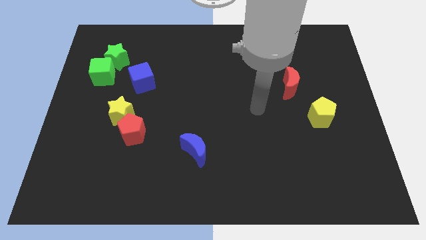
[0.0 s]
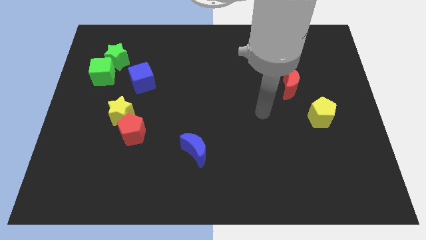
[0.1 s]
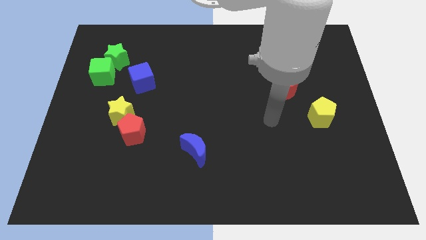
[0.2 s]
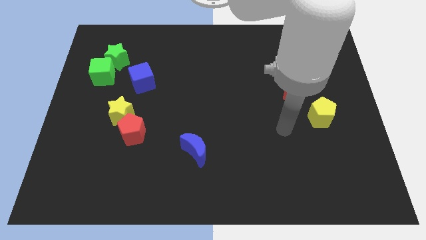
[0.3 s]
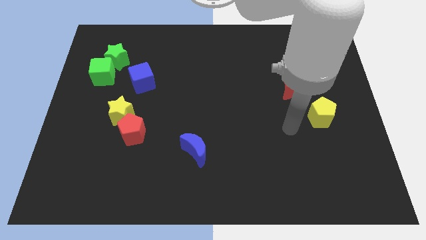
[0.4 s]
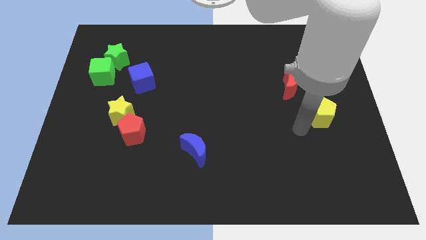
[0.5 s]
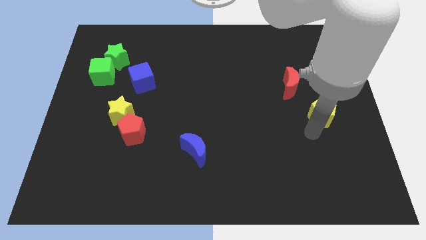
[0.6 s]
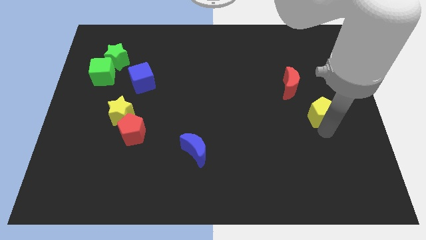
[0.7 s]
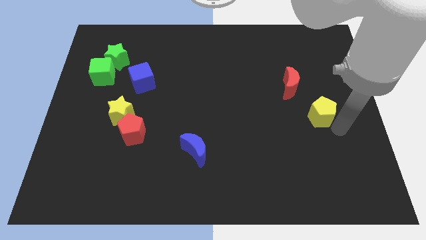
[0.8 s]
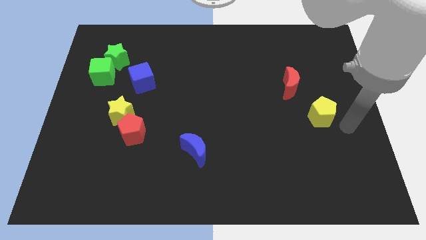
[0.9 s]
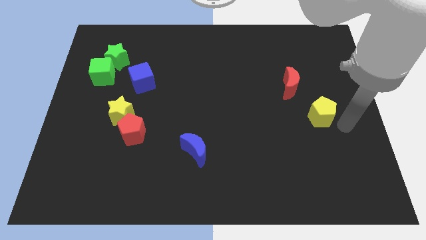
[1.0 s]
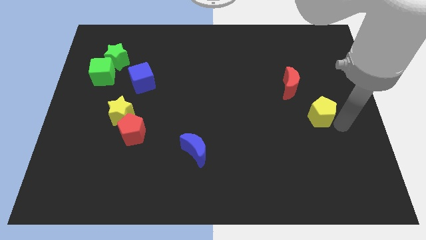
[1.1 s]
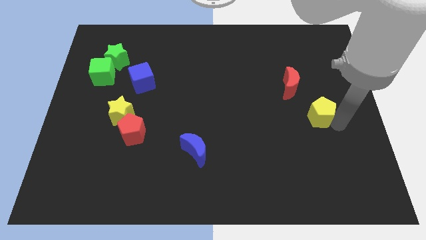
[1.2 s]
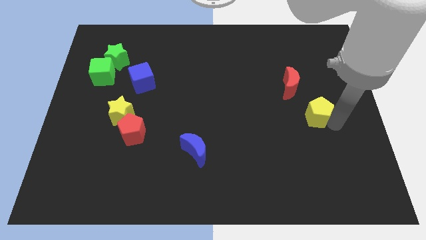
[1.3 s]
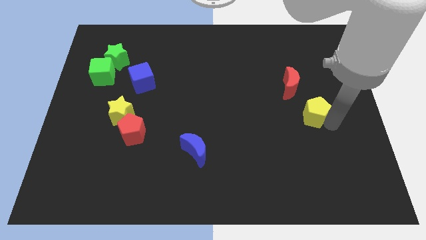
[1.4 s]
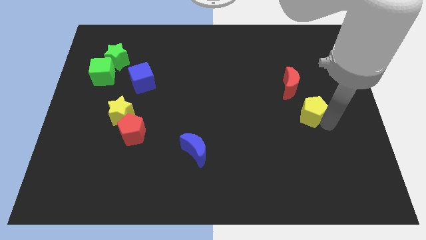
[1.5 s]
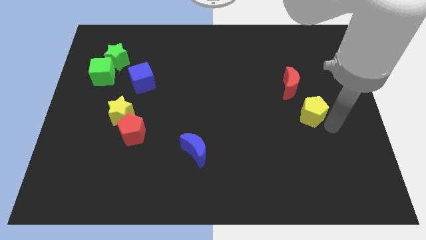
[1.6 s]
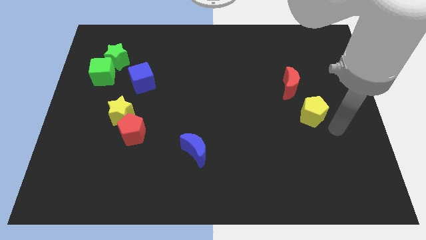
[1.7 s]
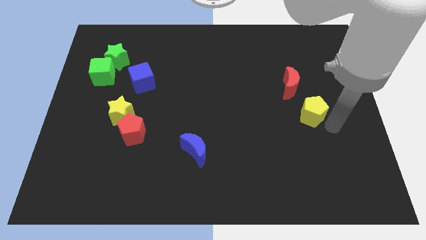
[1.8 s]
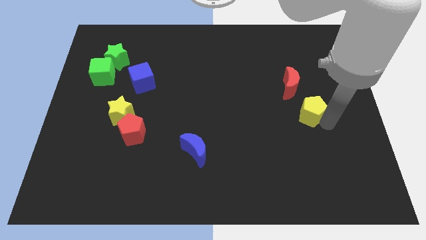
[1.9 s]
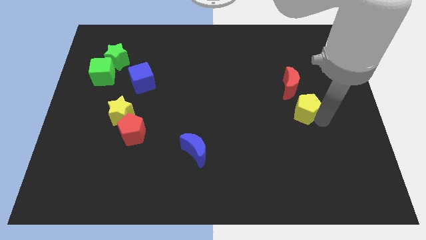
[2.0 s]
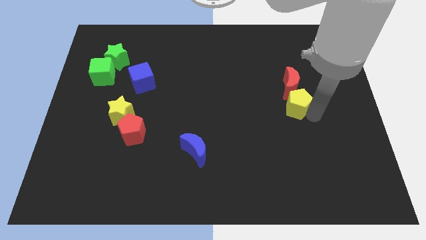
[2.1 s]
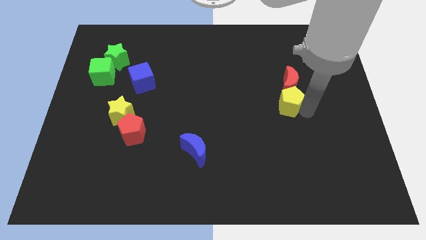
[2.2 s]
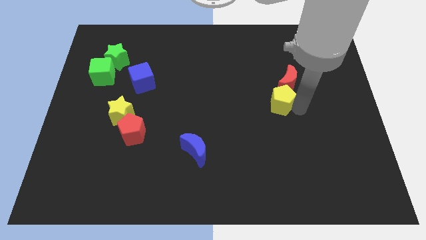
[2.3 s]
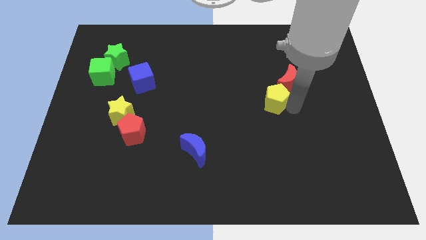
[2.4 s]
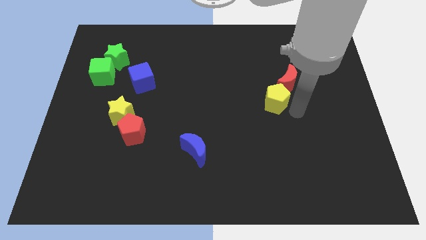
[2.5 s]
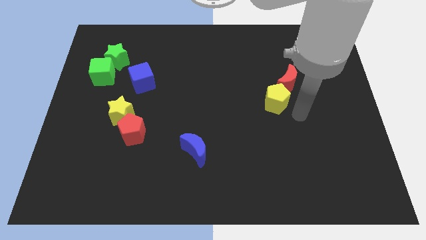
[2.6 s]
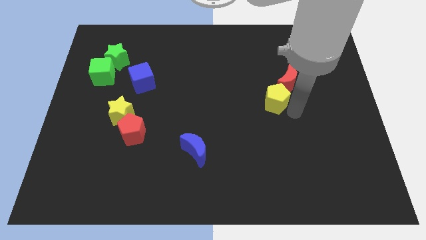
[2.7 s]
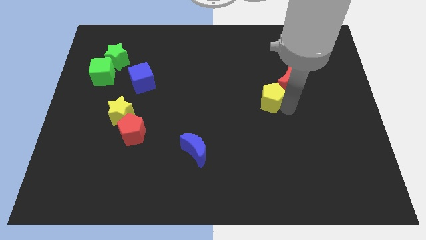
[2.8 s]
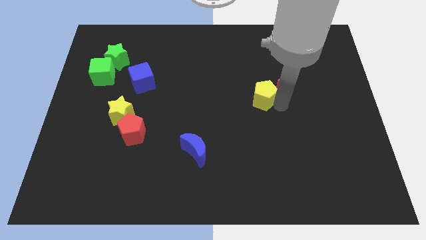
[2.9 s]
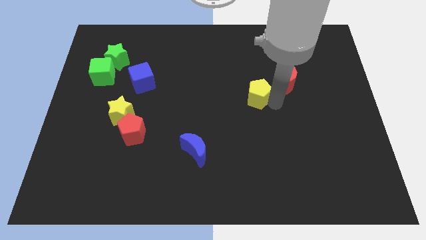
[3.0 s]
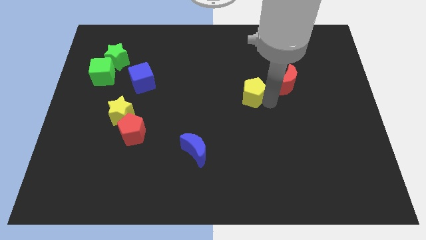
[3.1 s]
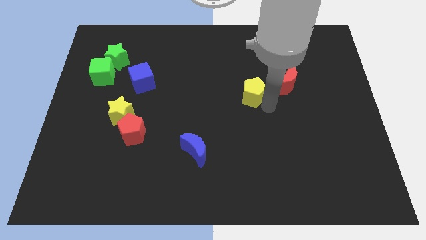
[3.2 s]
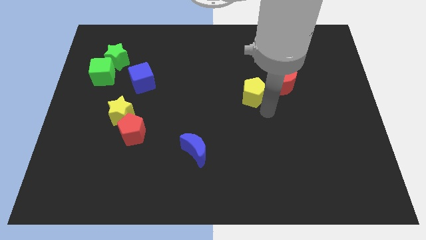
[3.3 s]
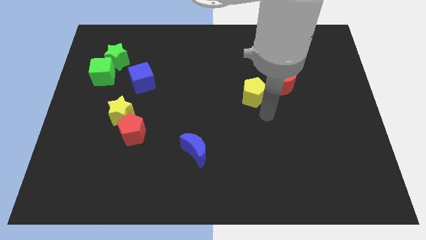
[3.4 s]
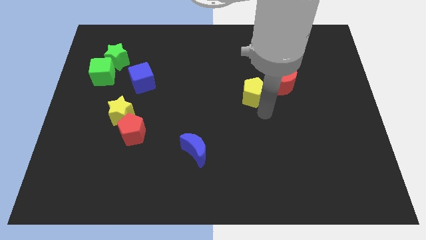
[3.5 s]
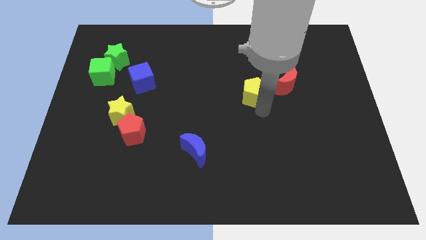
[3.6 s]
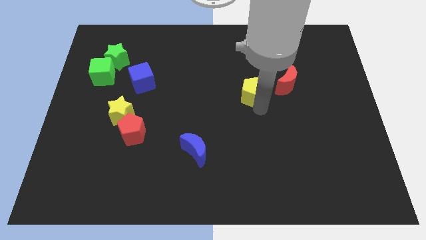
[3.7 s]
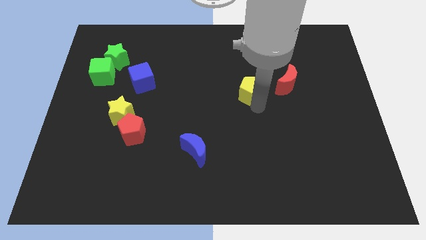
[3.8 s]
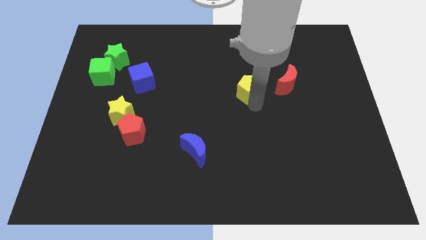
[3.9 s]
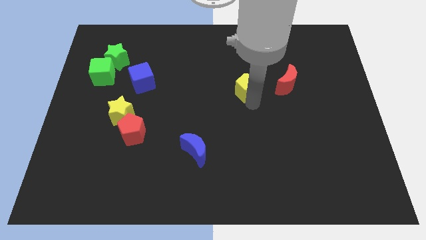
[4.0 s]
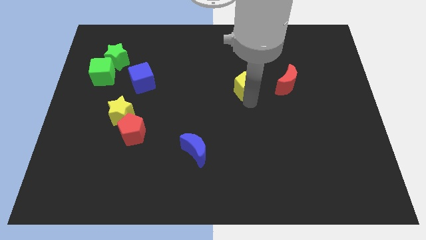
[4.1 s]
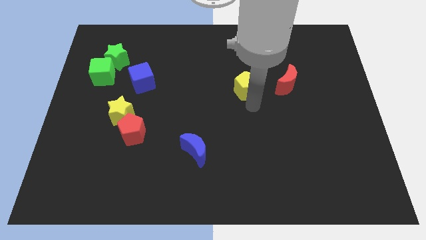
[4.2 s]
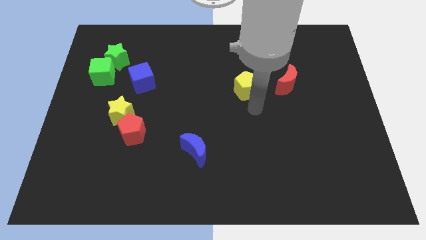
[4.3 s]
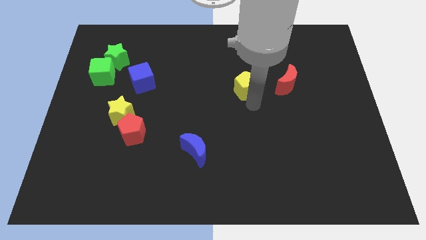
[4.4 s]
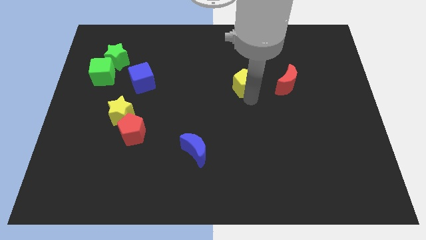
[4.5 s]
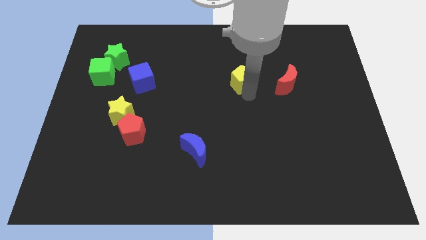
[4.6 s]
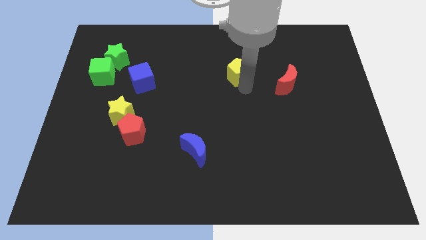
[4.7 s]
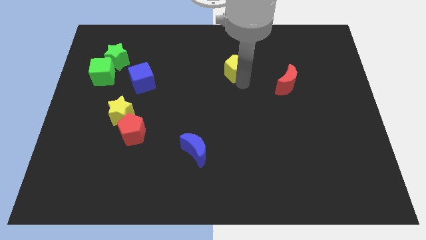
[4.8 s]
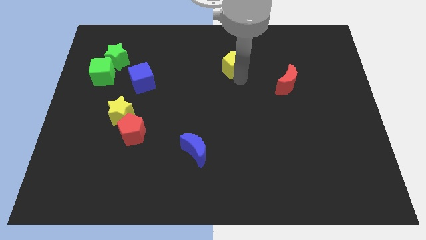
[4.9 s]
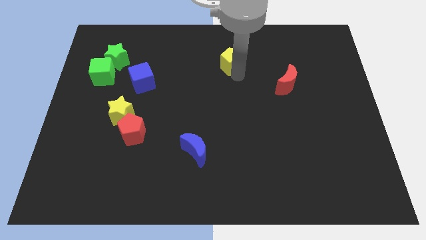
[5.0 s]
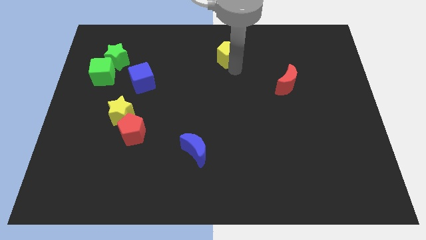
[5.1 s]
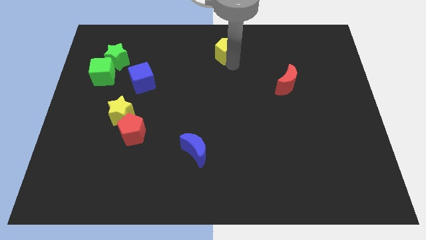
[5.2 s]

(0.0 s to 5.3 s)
slide the yellow pentagon to the top side

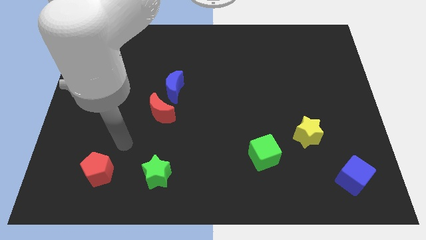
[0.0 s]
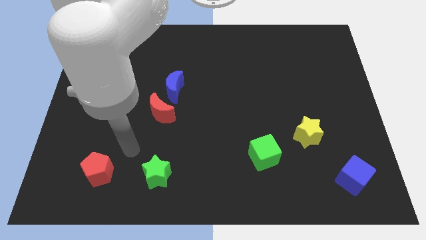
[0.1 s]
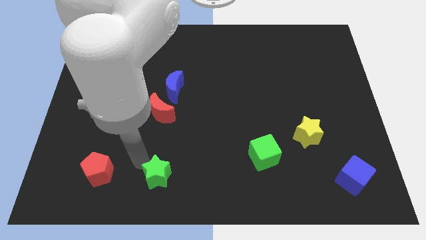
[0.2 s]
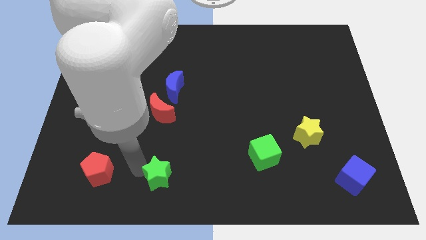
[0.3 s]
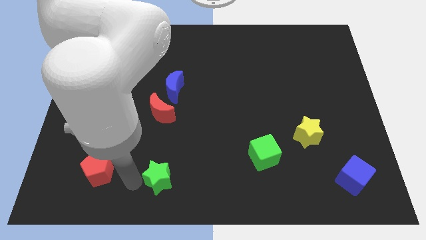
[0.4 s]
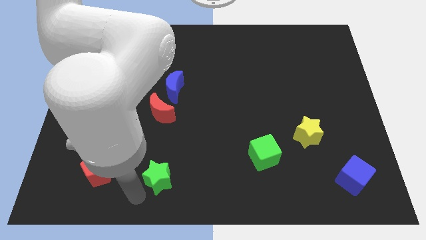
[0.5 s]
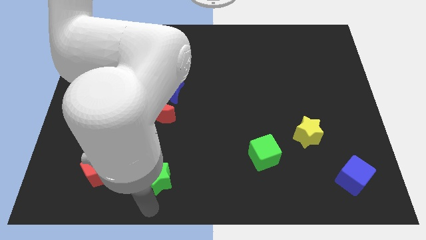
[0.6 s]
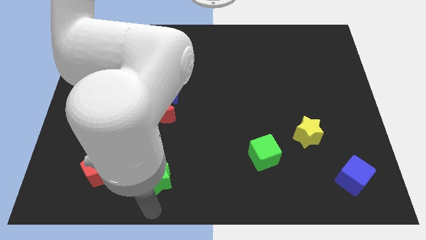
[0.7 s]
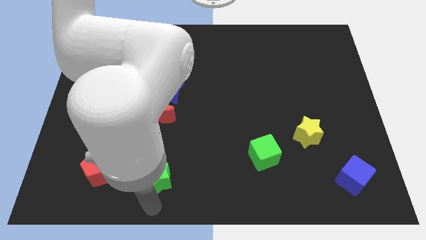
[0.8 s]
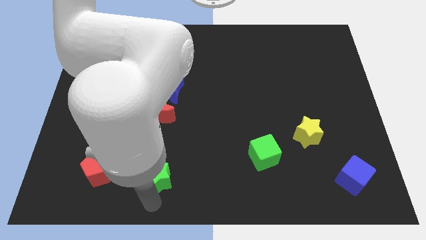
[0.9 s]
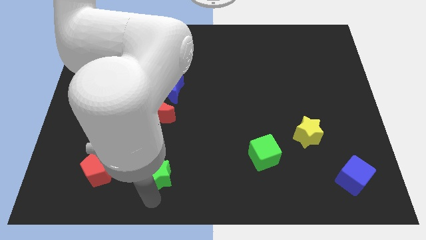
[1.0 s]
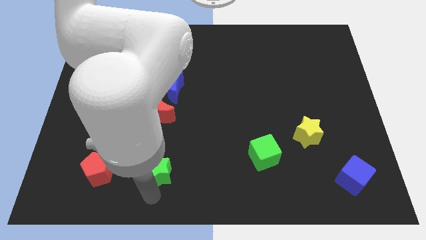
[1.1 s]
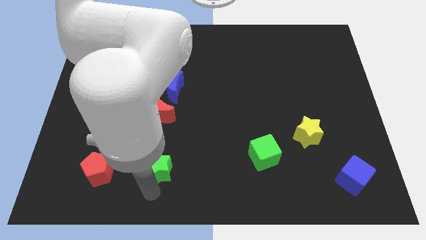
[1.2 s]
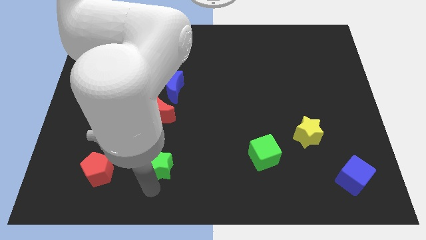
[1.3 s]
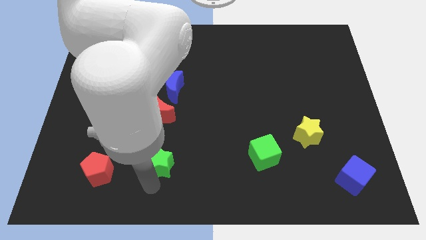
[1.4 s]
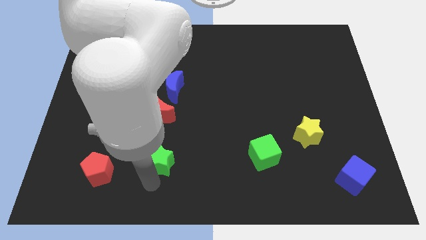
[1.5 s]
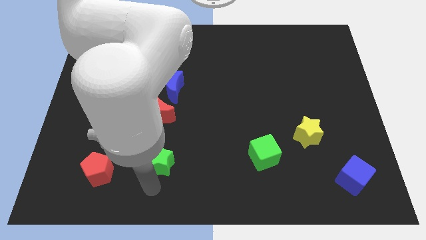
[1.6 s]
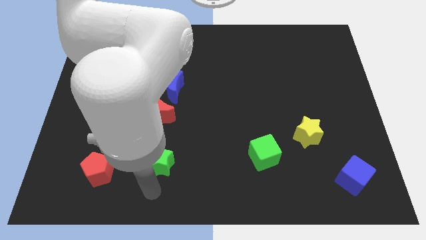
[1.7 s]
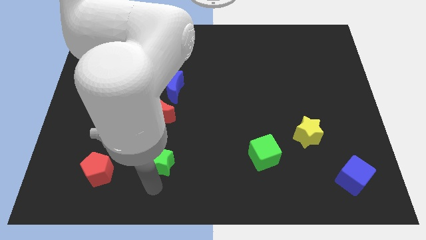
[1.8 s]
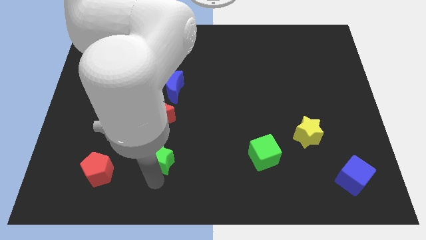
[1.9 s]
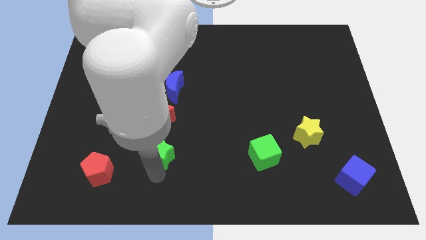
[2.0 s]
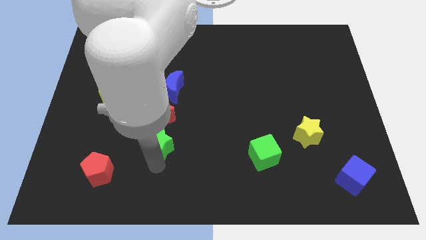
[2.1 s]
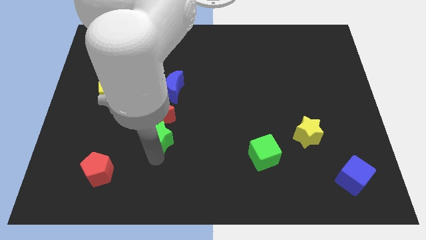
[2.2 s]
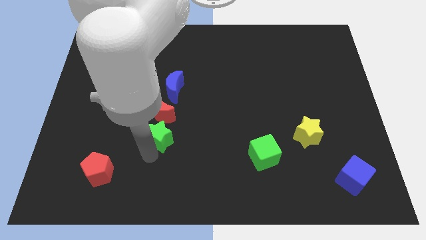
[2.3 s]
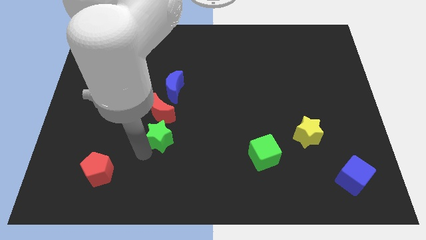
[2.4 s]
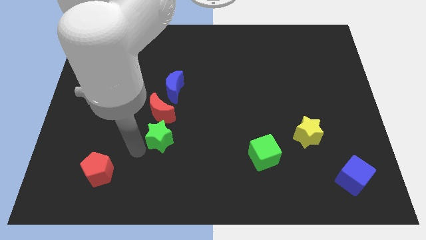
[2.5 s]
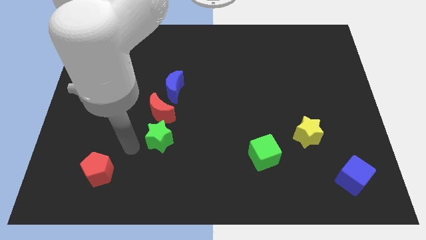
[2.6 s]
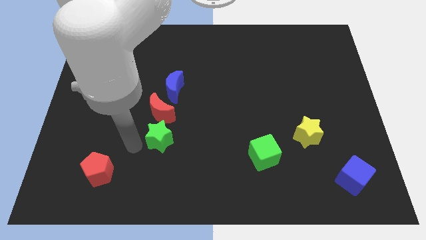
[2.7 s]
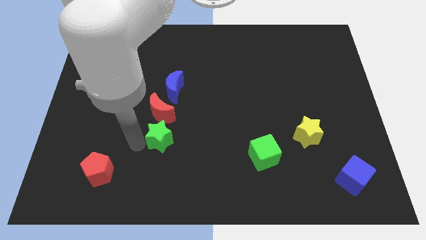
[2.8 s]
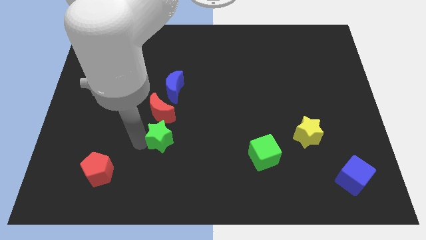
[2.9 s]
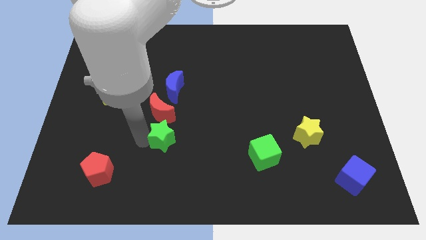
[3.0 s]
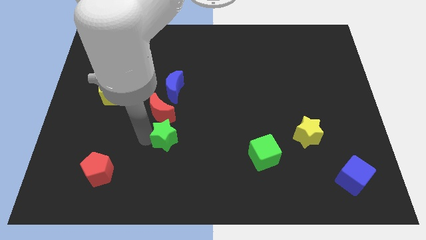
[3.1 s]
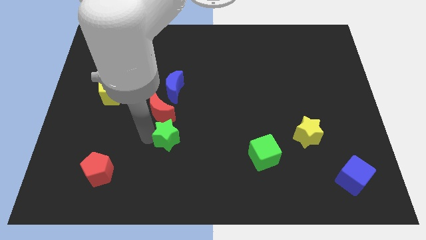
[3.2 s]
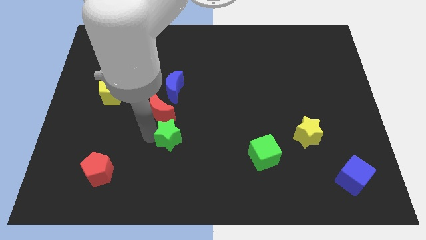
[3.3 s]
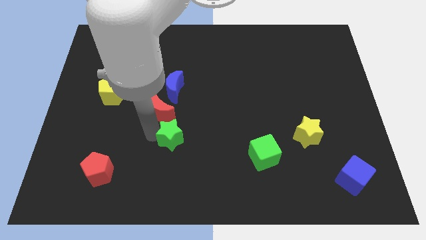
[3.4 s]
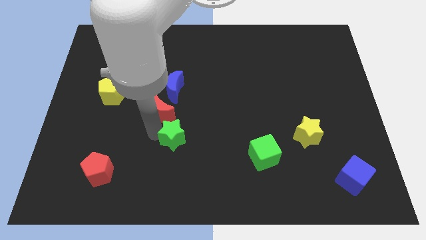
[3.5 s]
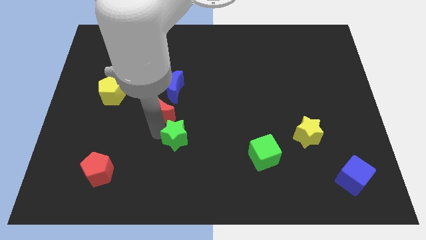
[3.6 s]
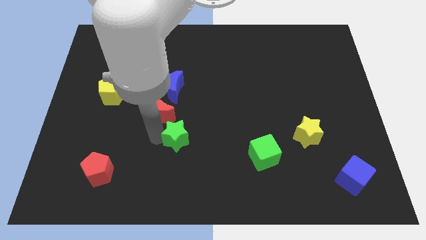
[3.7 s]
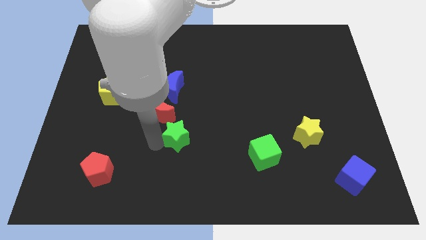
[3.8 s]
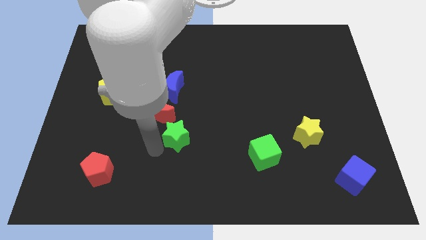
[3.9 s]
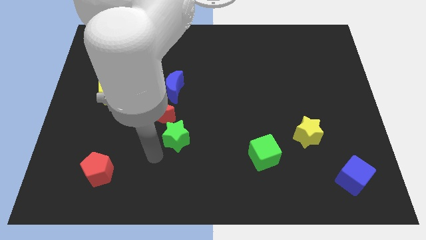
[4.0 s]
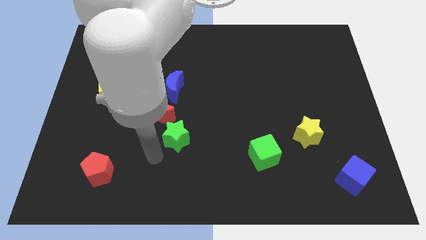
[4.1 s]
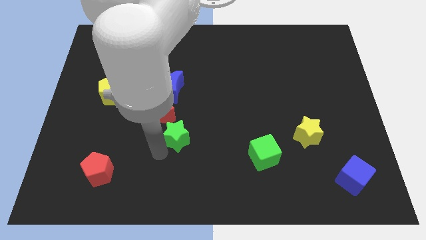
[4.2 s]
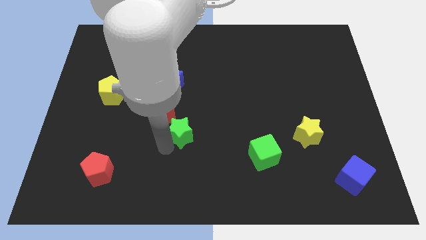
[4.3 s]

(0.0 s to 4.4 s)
push the green star to the center of the board
